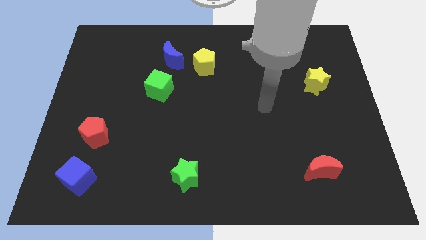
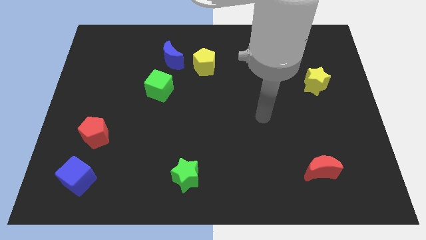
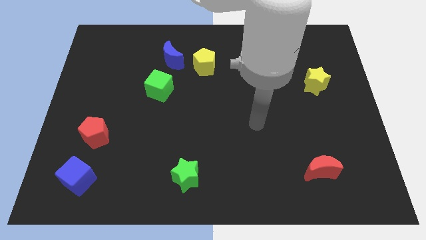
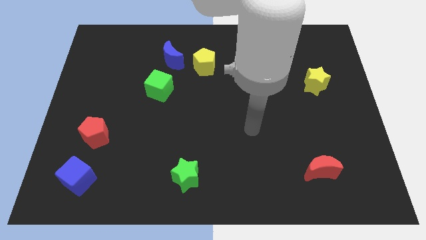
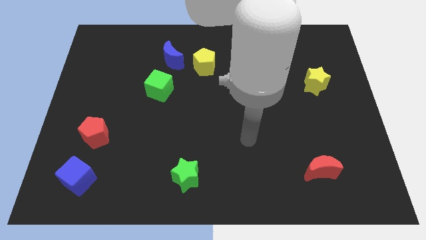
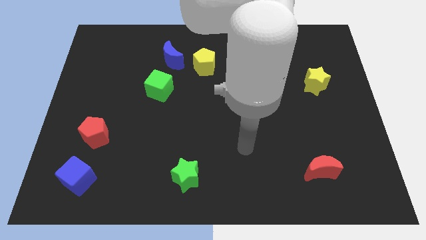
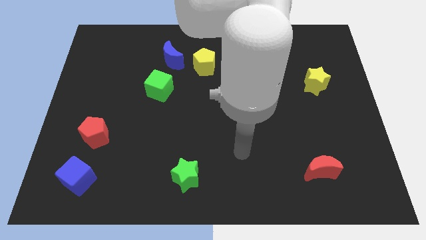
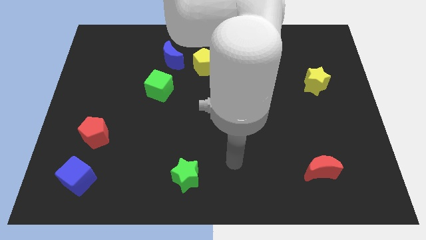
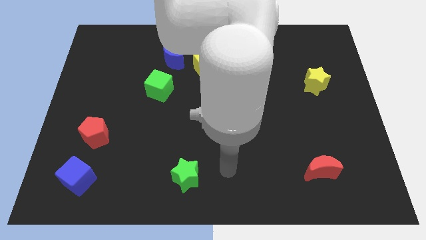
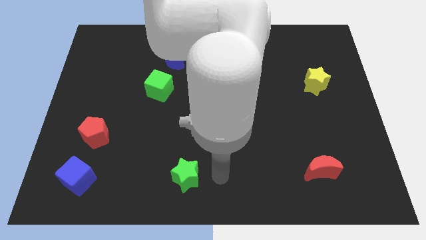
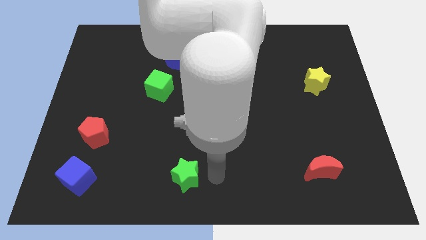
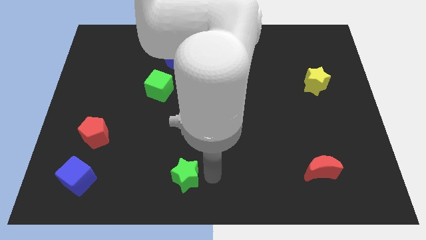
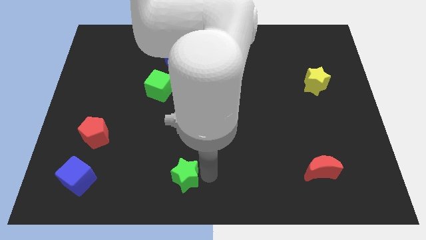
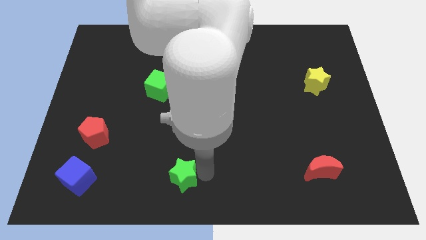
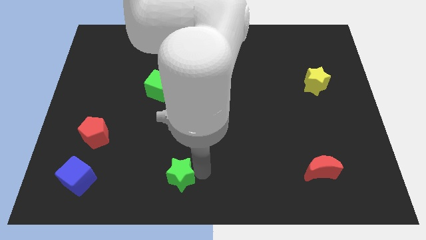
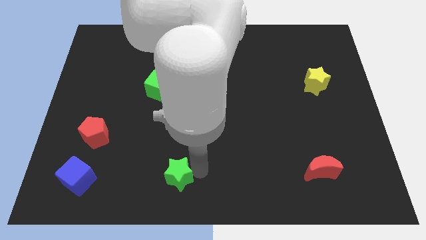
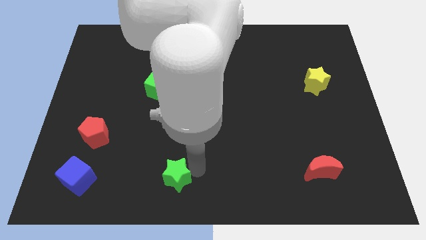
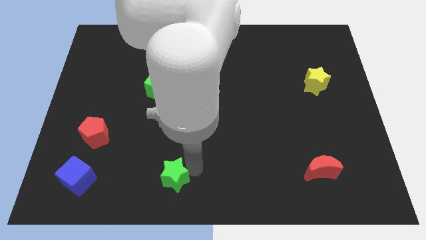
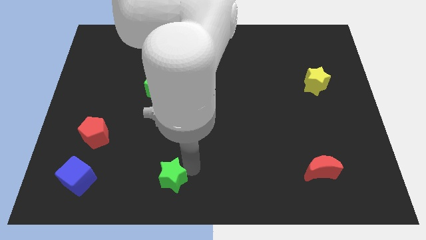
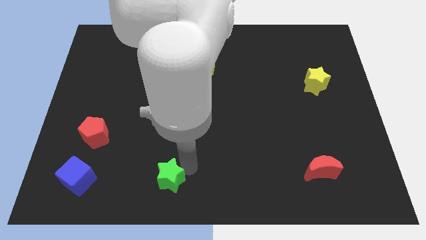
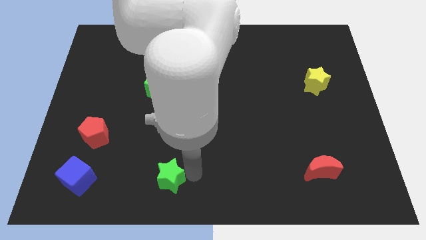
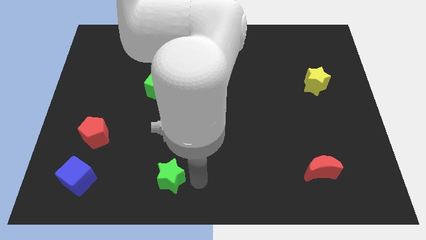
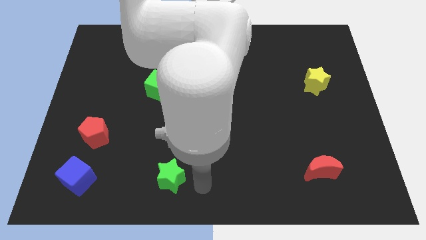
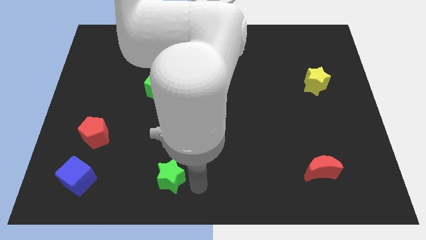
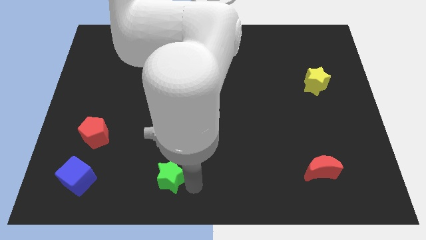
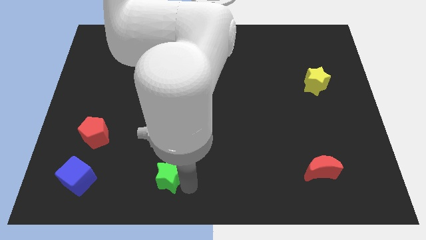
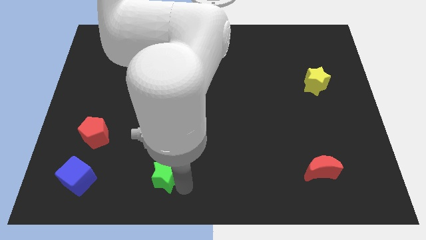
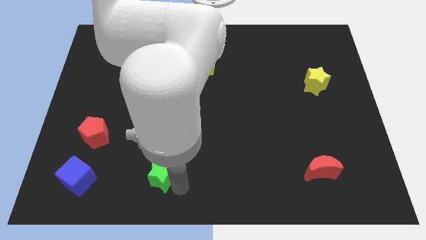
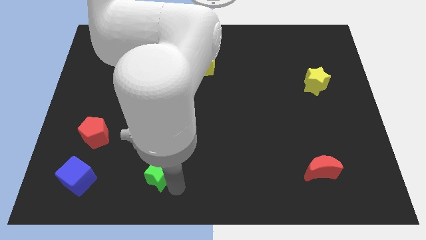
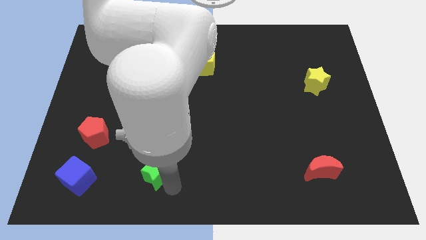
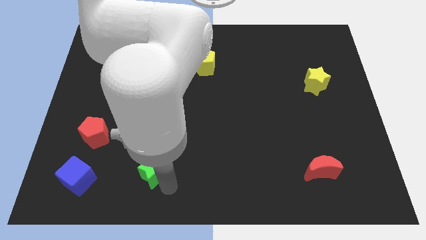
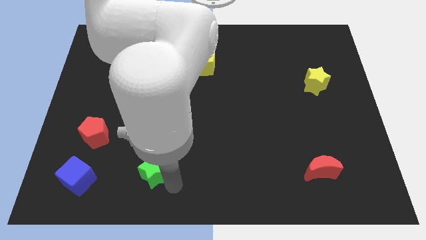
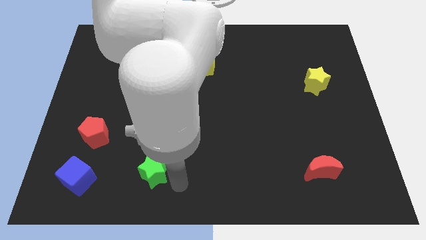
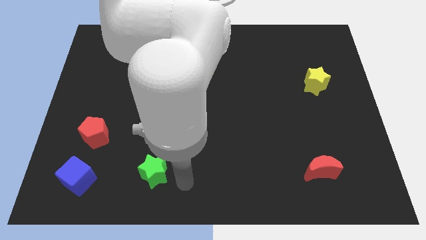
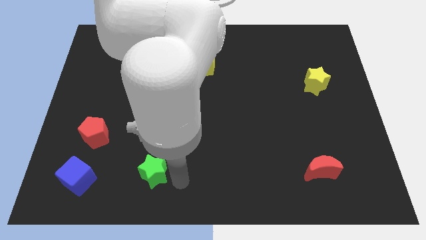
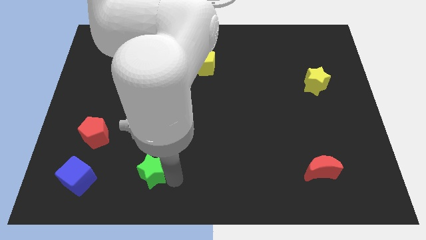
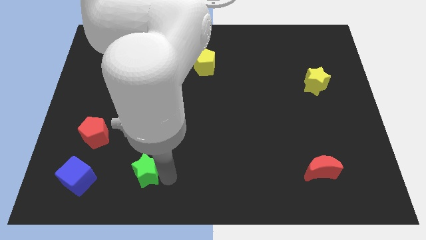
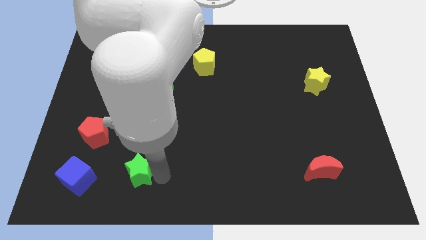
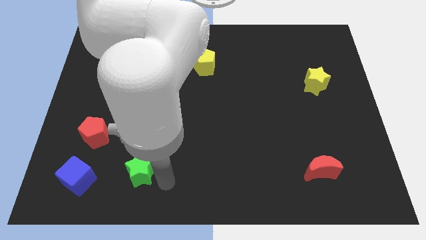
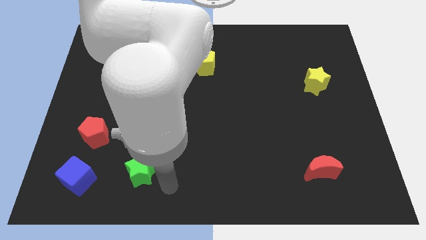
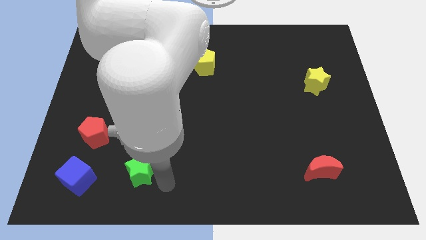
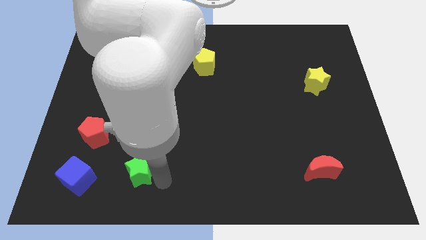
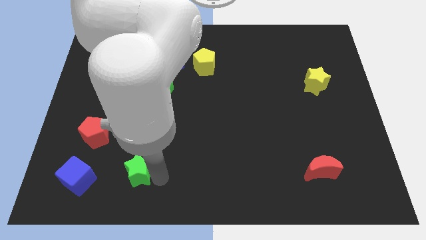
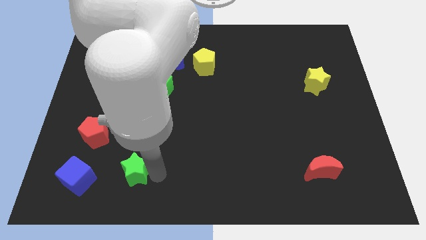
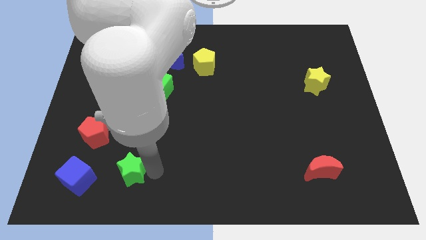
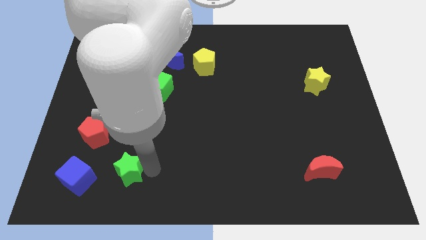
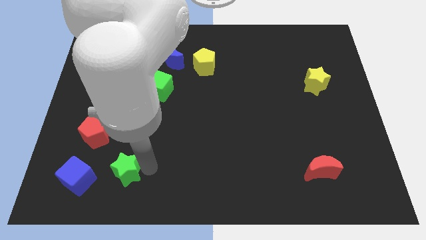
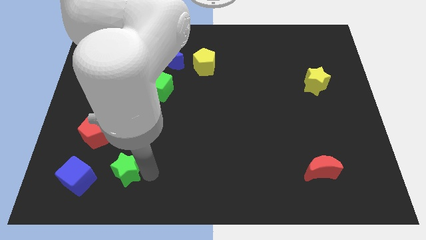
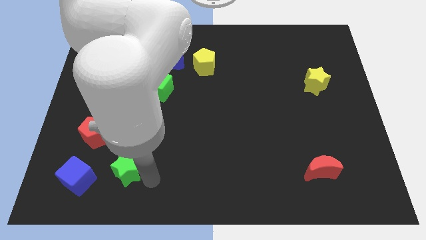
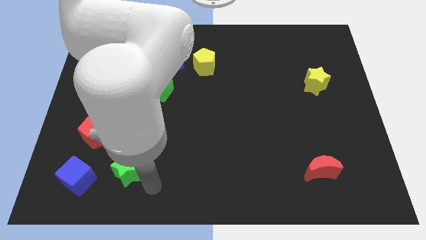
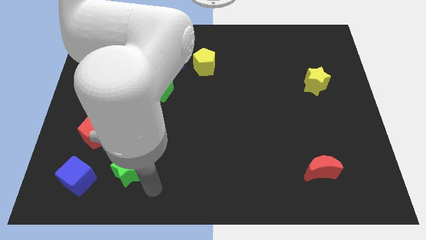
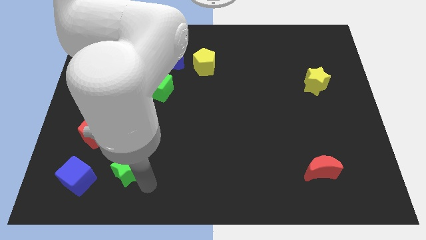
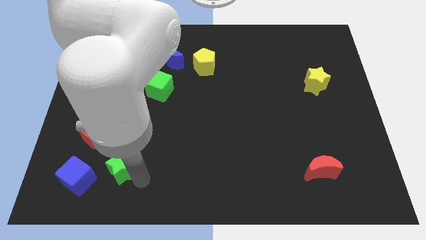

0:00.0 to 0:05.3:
move the green star to the top right side of the blue cube

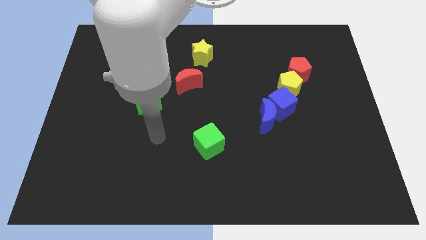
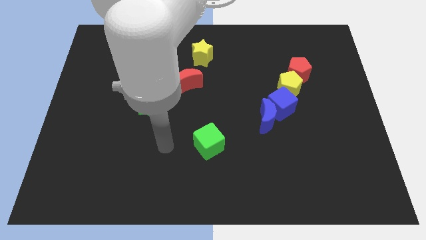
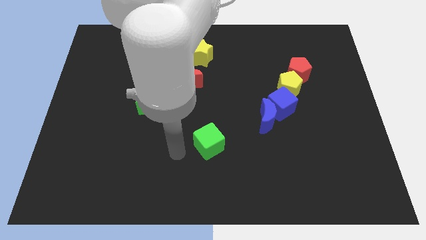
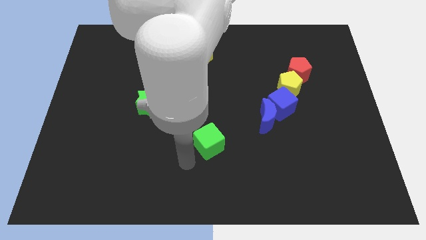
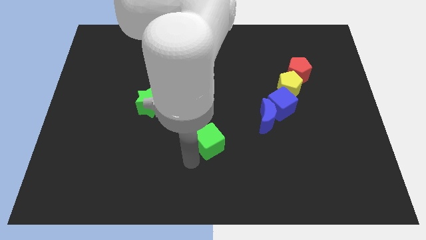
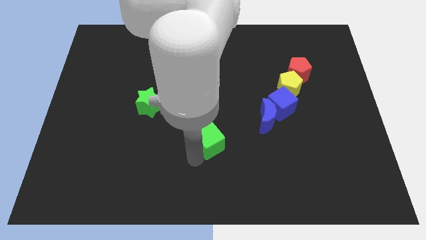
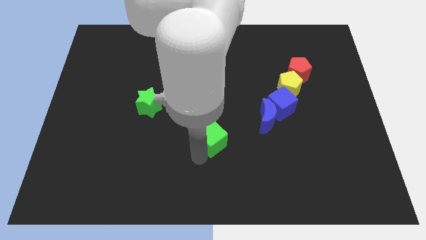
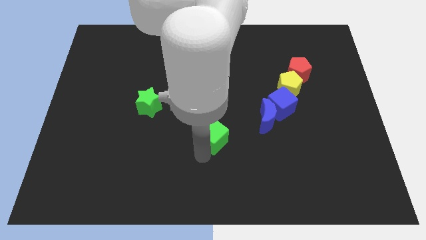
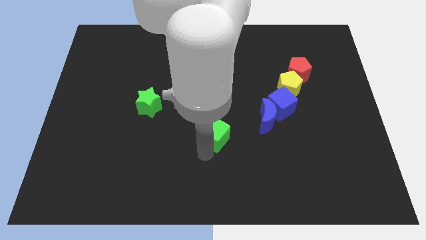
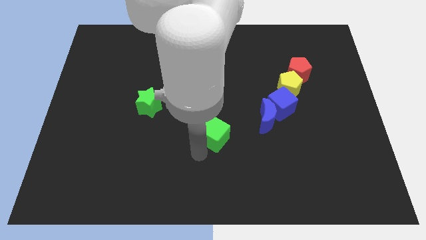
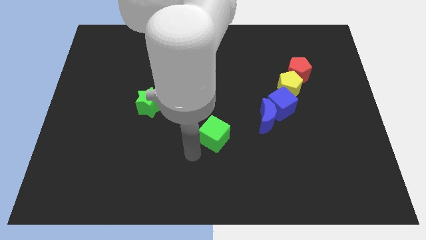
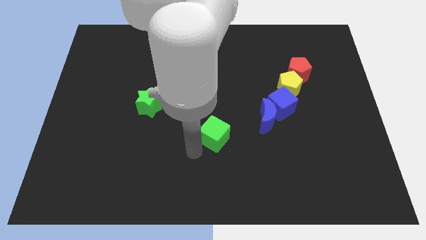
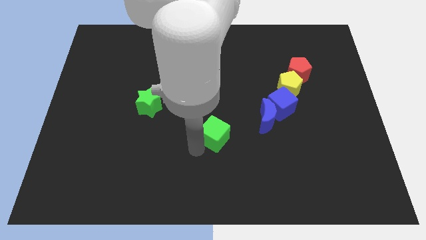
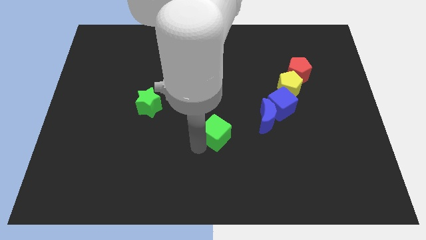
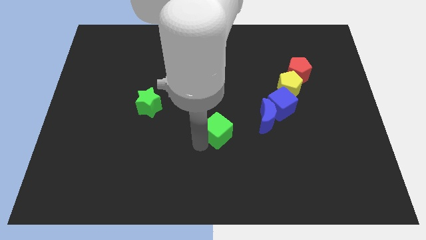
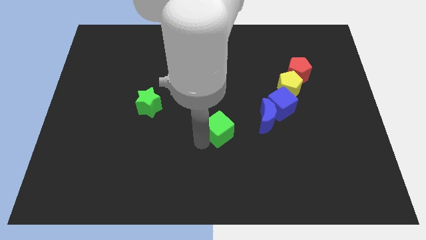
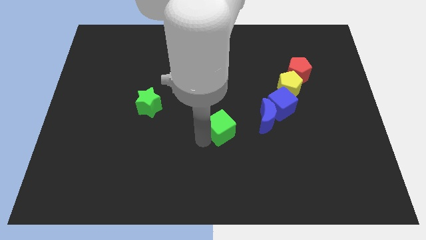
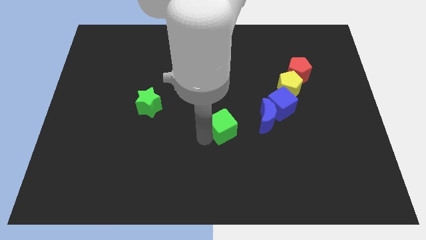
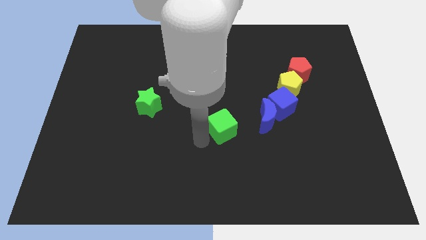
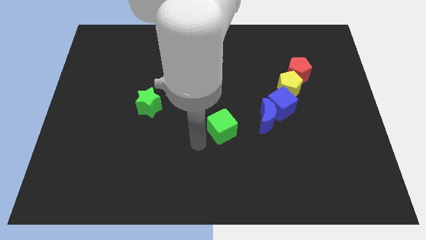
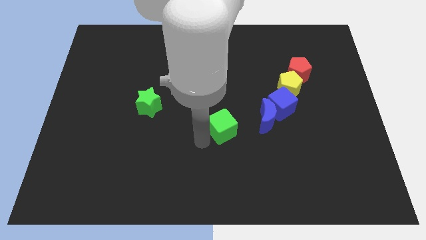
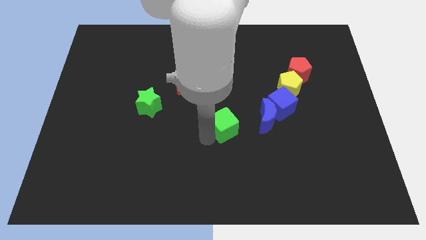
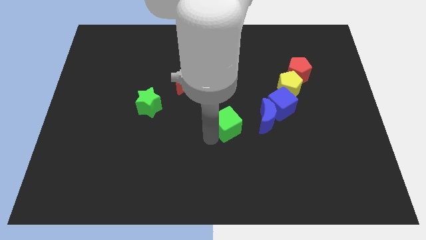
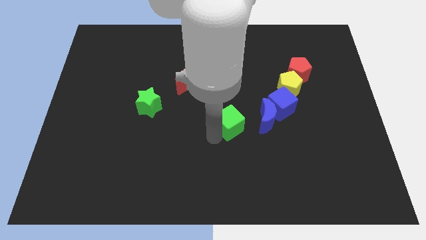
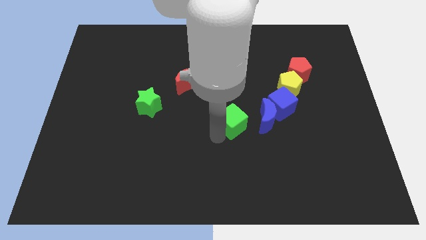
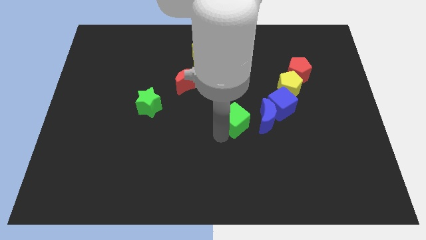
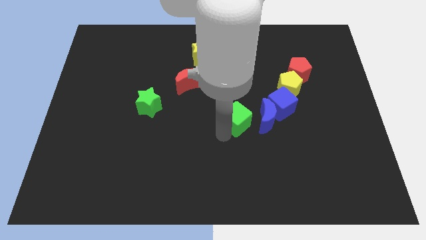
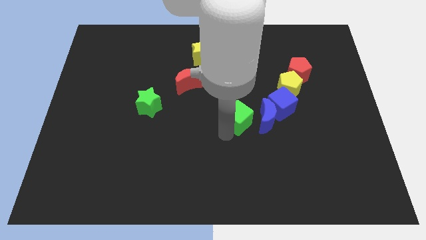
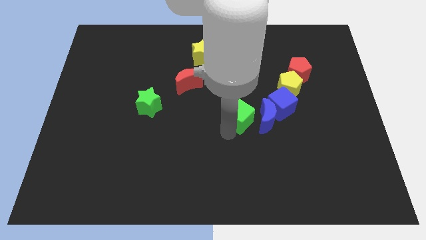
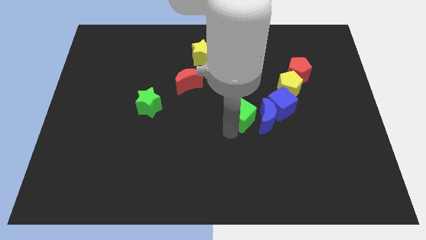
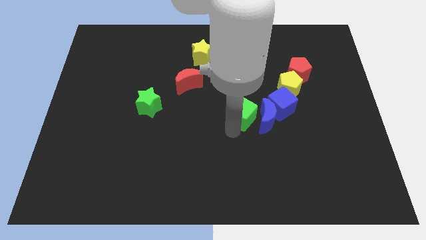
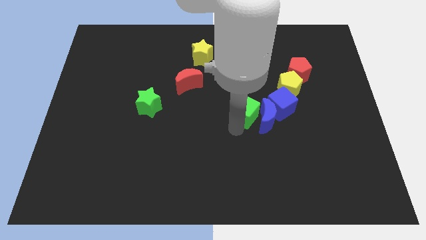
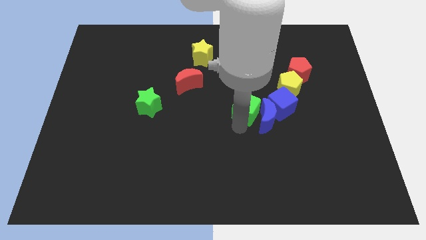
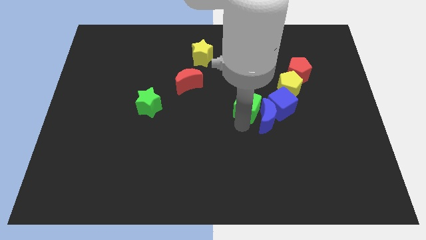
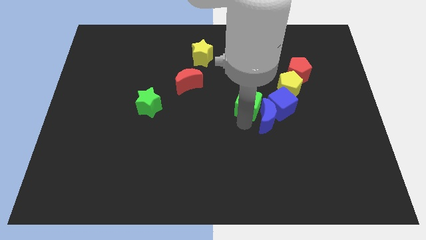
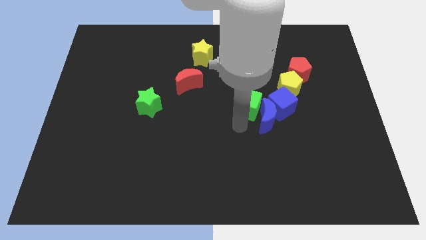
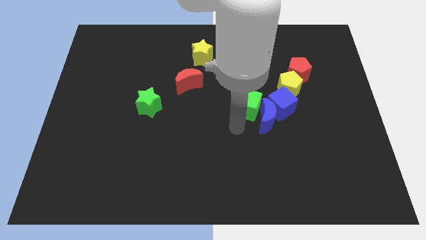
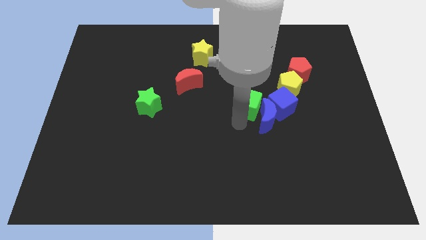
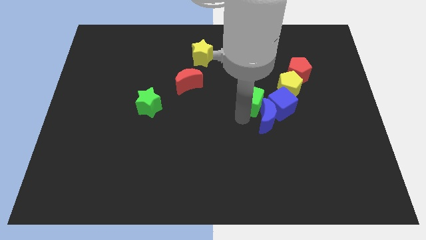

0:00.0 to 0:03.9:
slide the green cube to the top left of the blue cube
